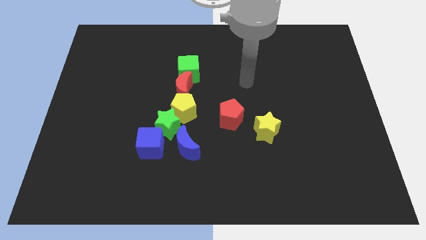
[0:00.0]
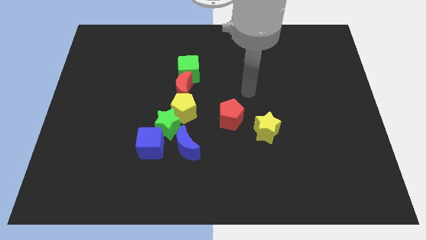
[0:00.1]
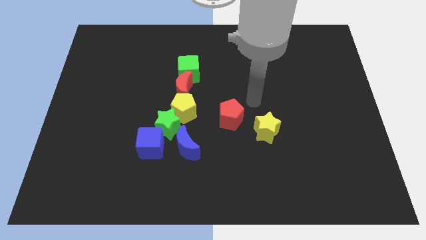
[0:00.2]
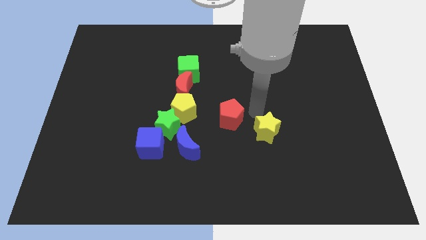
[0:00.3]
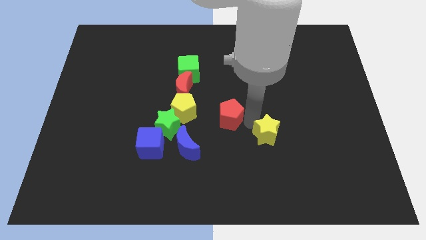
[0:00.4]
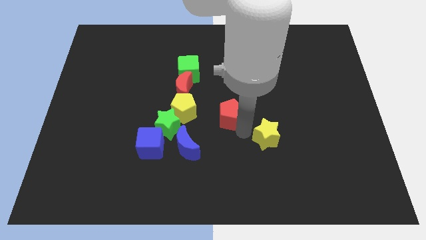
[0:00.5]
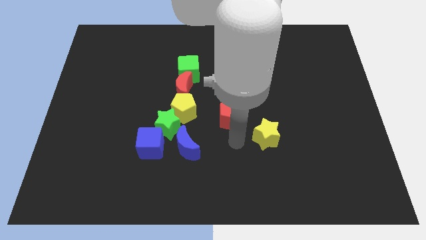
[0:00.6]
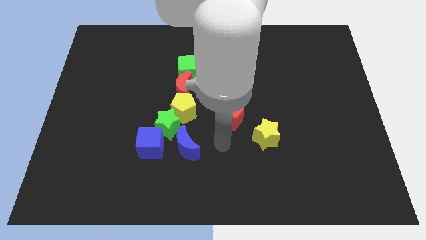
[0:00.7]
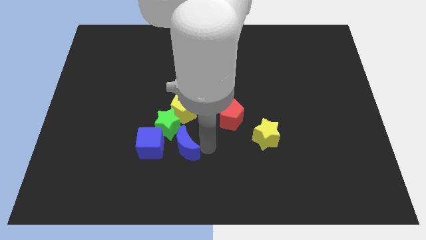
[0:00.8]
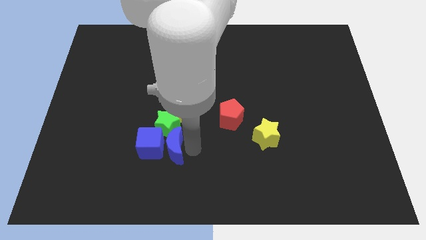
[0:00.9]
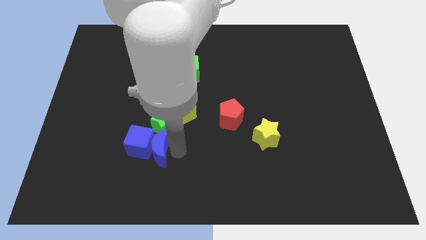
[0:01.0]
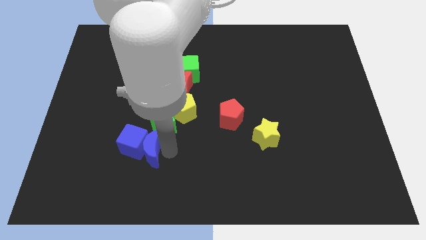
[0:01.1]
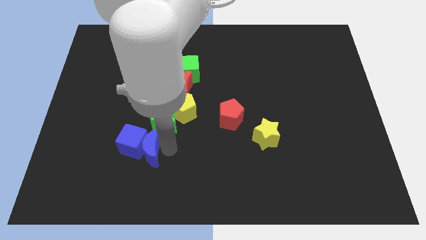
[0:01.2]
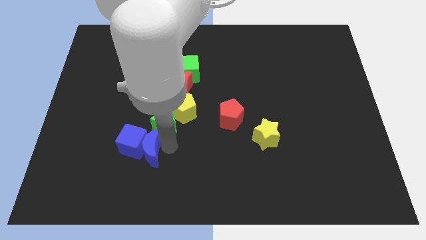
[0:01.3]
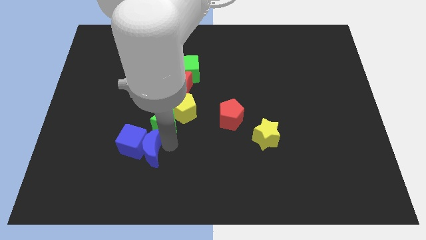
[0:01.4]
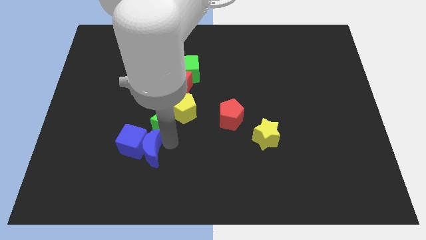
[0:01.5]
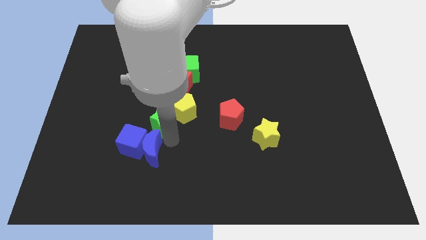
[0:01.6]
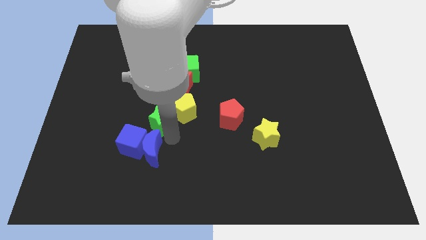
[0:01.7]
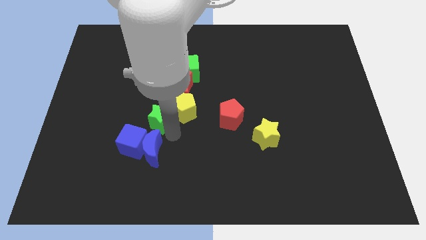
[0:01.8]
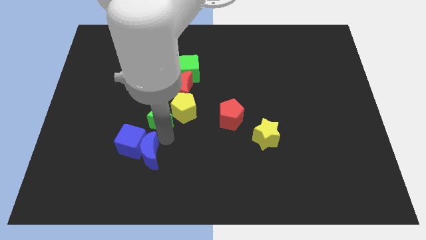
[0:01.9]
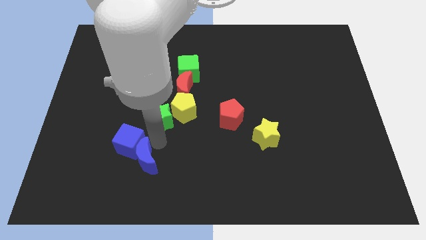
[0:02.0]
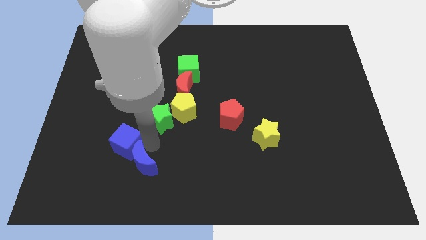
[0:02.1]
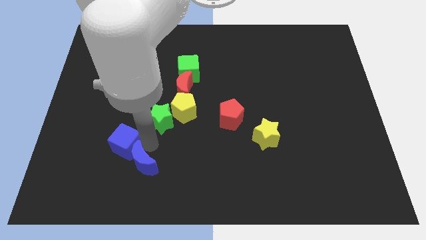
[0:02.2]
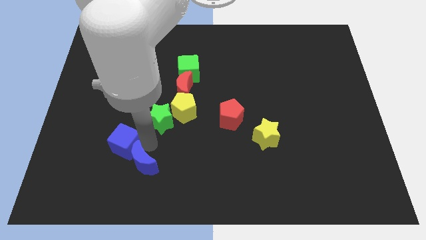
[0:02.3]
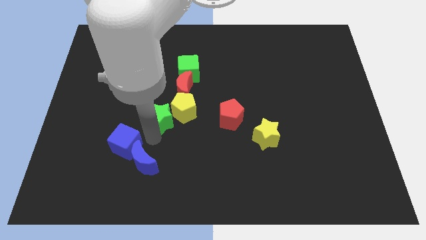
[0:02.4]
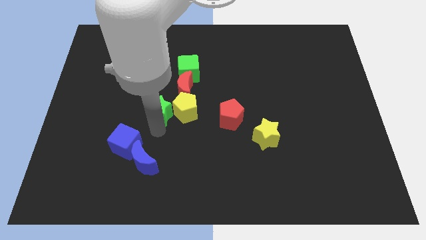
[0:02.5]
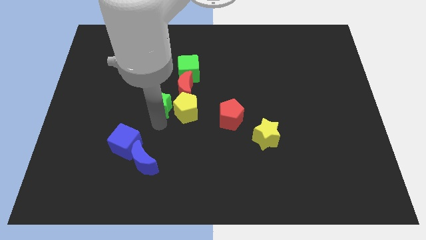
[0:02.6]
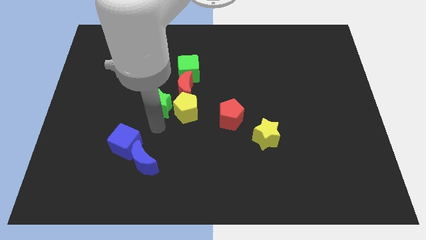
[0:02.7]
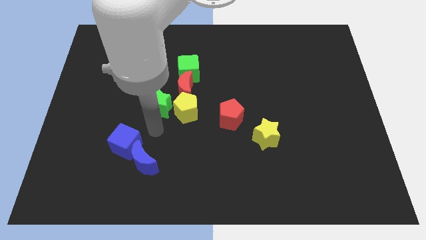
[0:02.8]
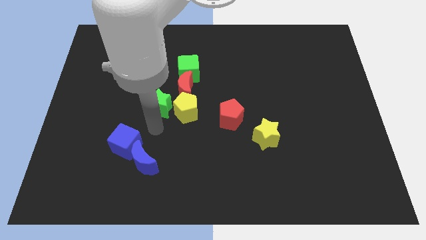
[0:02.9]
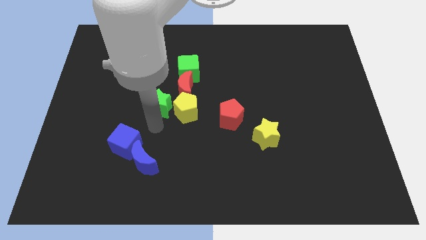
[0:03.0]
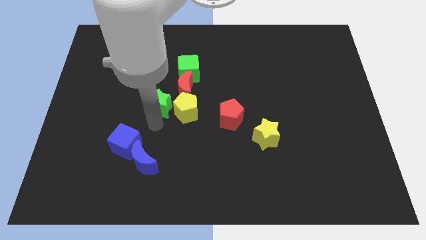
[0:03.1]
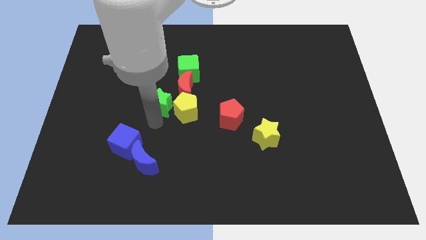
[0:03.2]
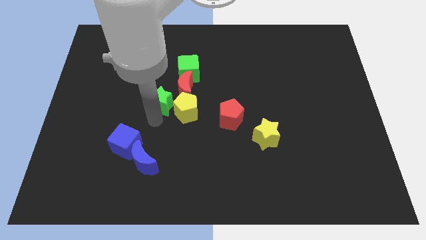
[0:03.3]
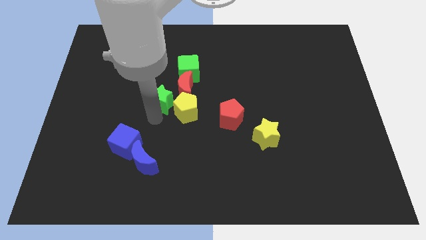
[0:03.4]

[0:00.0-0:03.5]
pull the green star apart from the group

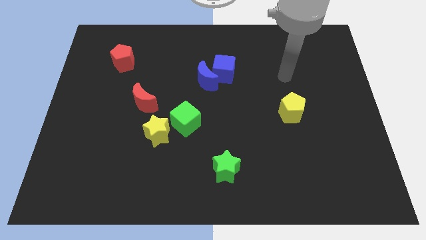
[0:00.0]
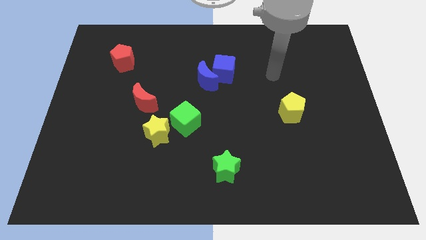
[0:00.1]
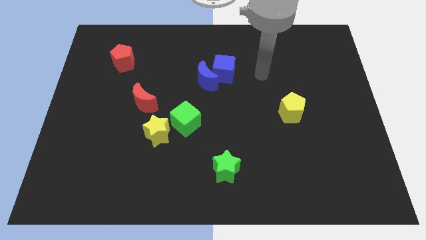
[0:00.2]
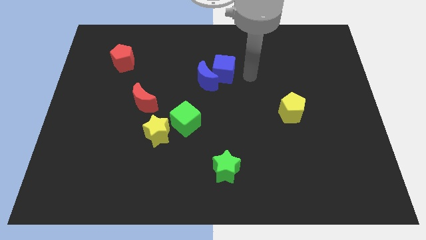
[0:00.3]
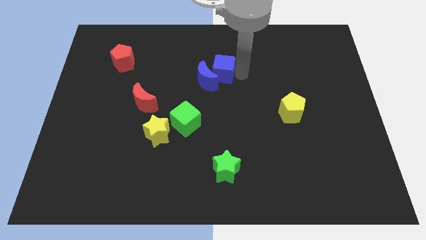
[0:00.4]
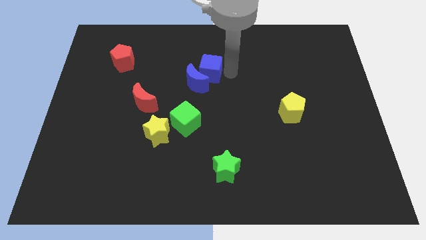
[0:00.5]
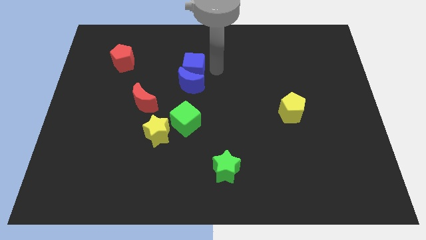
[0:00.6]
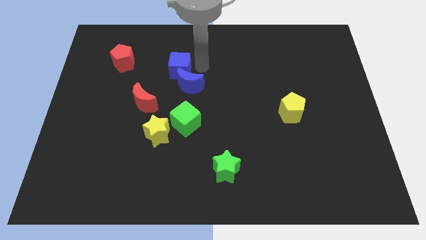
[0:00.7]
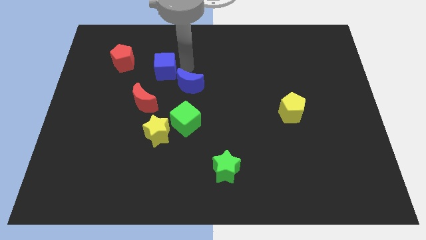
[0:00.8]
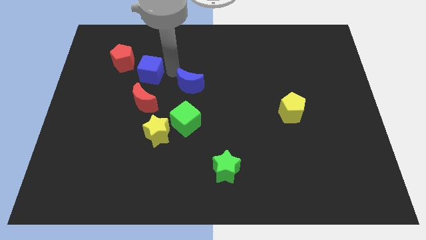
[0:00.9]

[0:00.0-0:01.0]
pull the blue moon apart from the blue cube

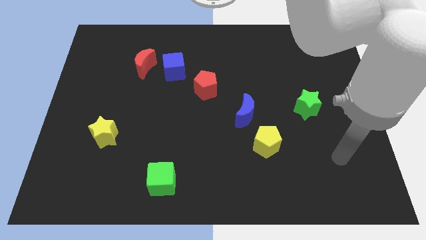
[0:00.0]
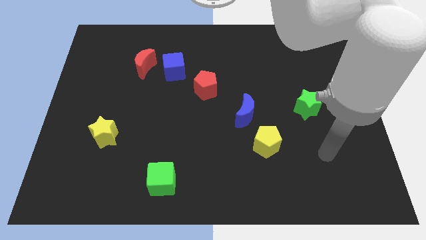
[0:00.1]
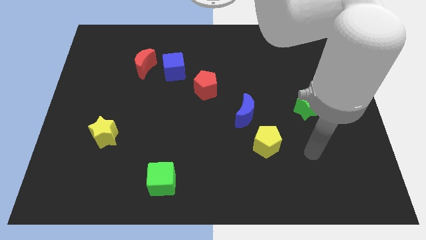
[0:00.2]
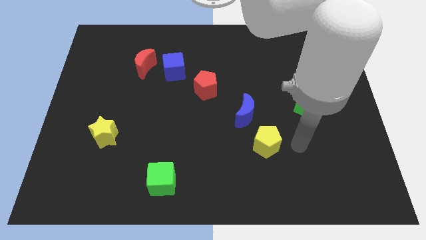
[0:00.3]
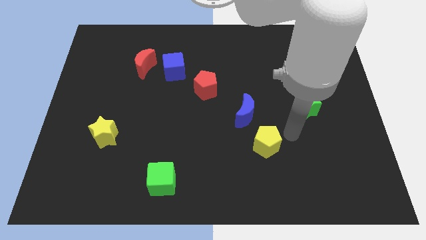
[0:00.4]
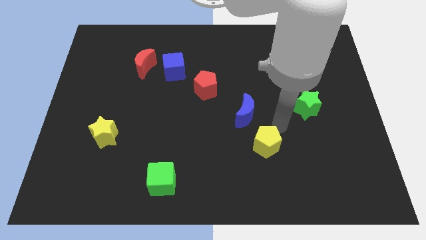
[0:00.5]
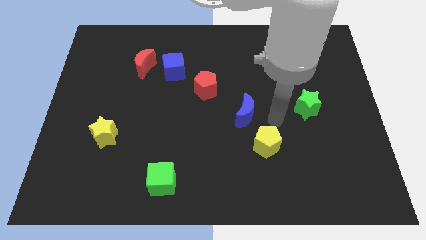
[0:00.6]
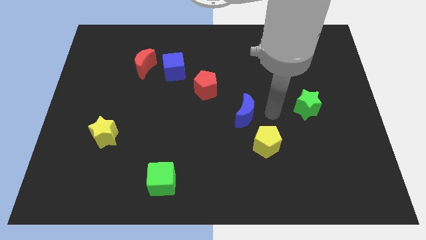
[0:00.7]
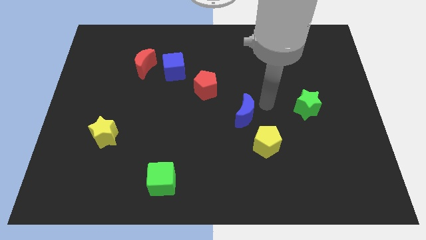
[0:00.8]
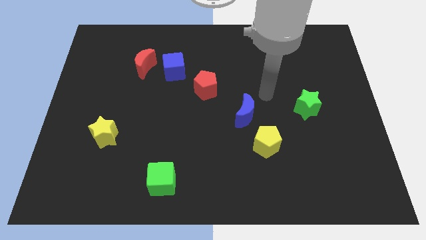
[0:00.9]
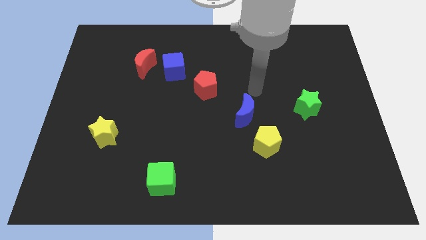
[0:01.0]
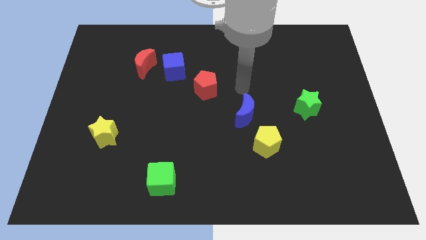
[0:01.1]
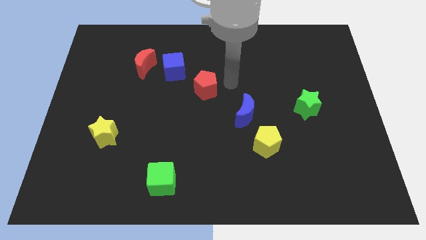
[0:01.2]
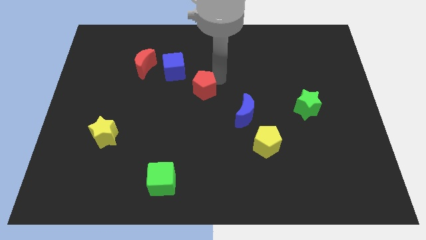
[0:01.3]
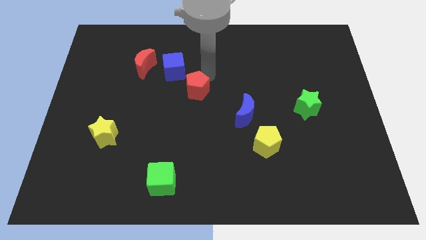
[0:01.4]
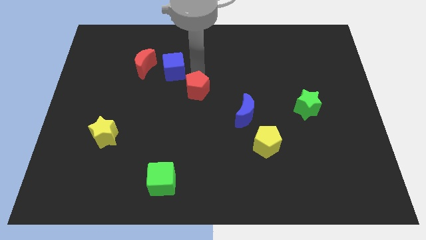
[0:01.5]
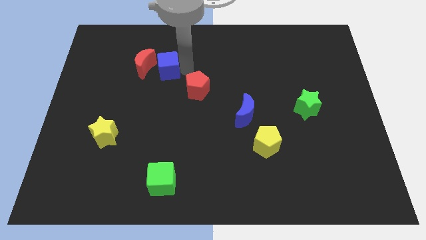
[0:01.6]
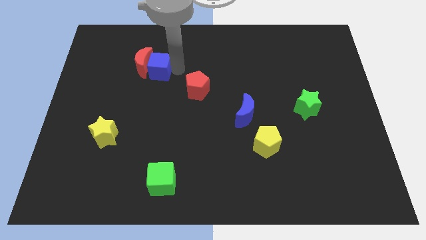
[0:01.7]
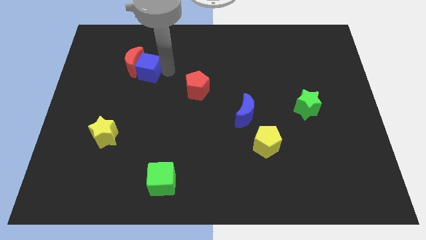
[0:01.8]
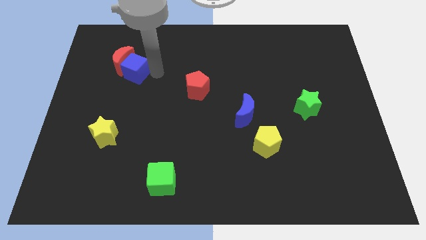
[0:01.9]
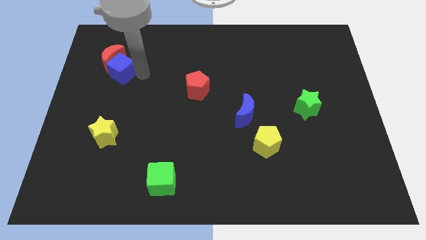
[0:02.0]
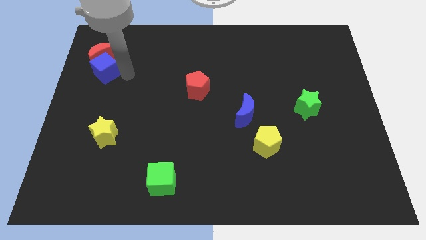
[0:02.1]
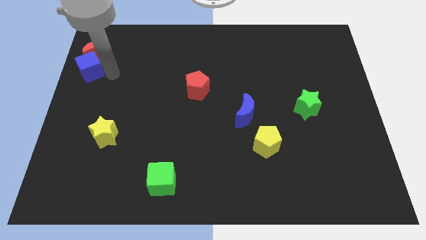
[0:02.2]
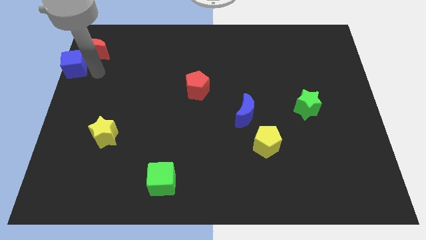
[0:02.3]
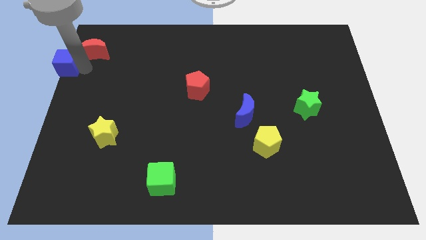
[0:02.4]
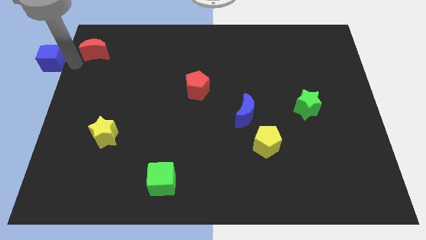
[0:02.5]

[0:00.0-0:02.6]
separate the red moon from the blue cube

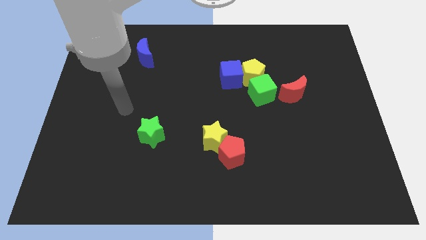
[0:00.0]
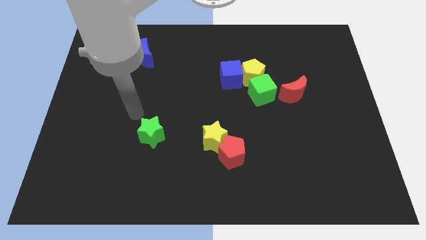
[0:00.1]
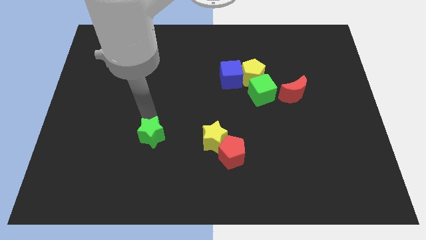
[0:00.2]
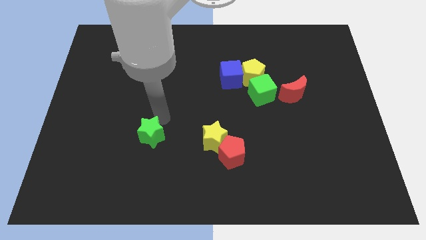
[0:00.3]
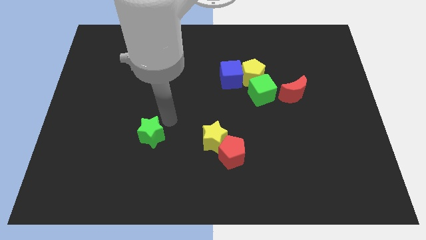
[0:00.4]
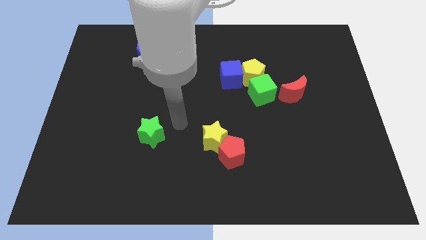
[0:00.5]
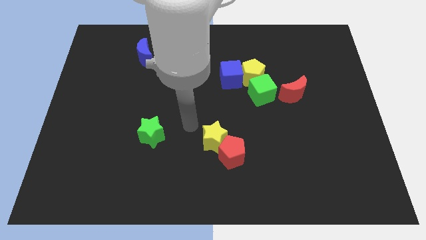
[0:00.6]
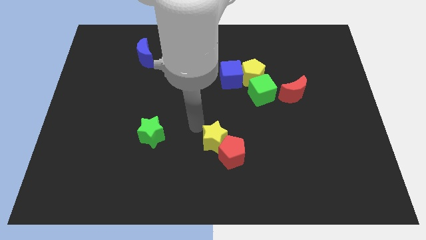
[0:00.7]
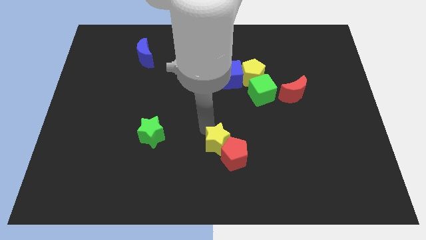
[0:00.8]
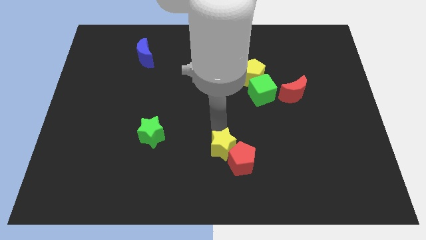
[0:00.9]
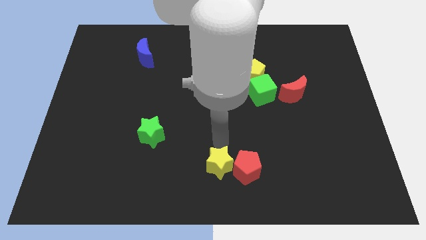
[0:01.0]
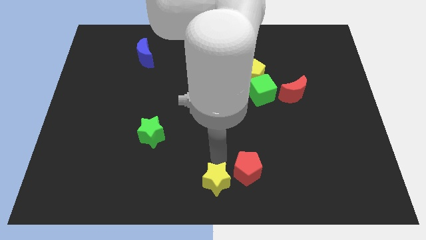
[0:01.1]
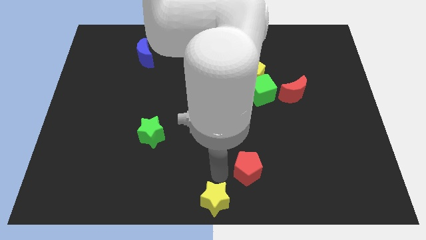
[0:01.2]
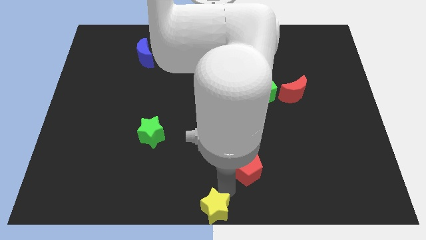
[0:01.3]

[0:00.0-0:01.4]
move the red pentagon away from the yellow star

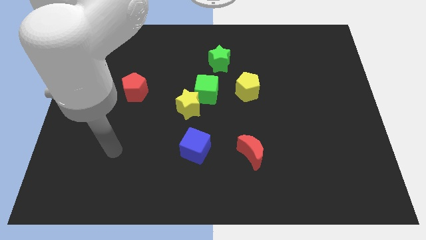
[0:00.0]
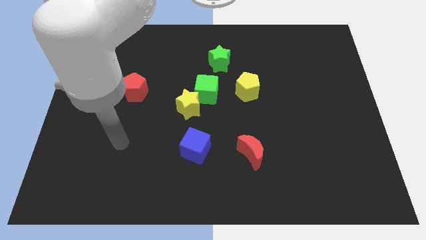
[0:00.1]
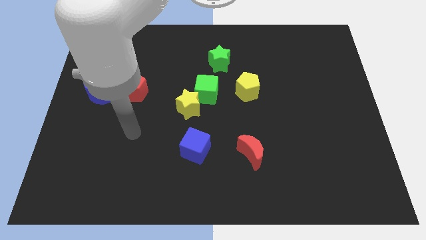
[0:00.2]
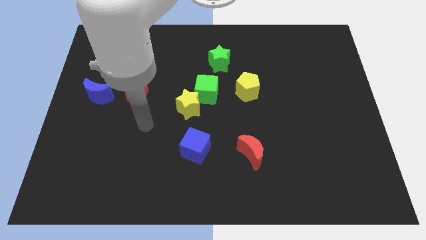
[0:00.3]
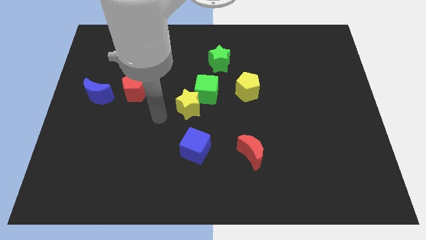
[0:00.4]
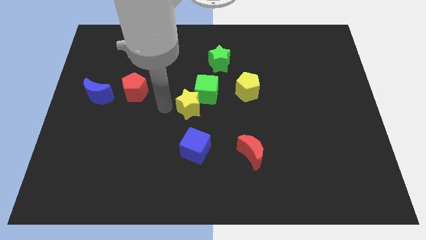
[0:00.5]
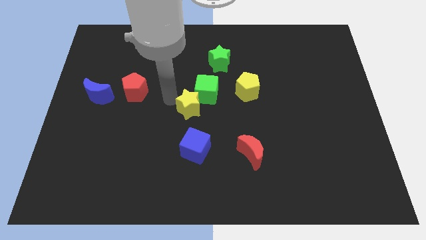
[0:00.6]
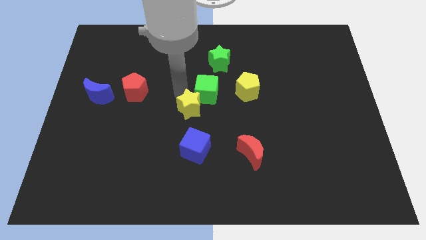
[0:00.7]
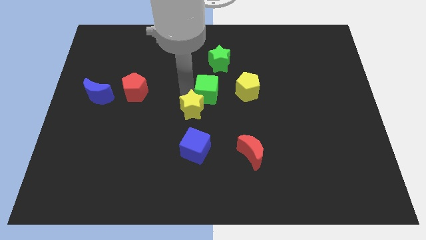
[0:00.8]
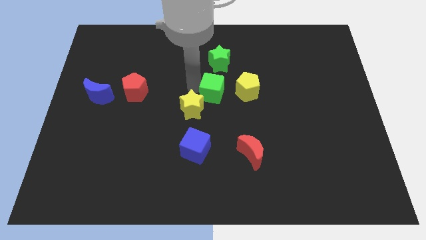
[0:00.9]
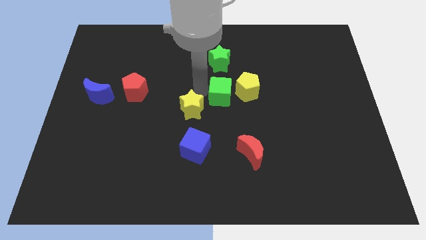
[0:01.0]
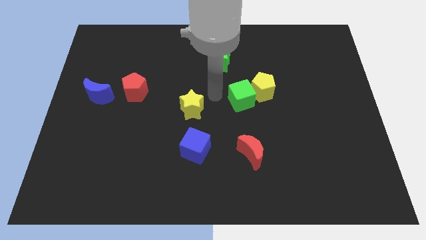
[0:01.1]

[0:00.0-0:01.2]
pull the yellow star apart from the green cube
